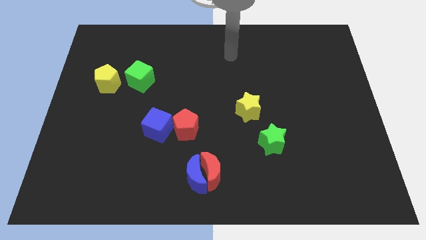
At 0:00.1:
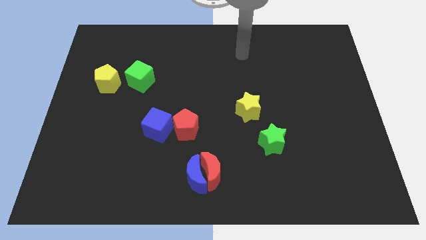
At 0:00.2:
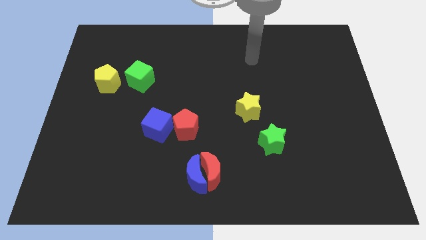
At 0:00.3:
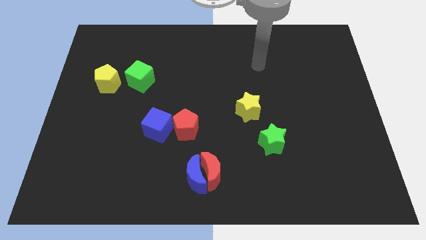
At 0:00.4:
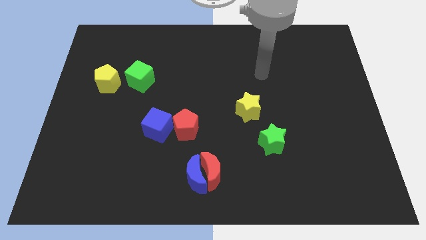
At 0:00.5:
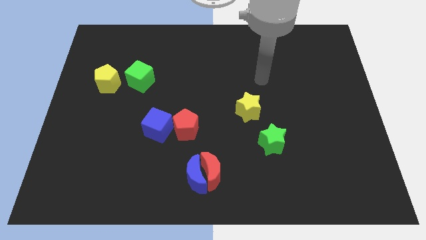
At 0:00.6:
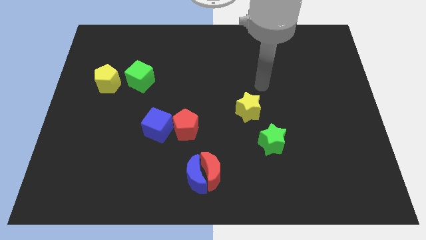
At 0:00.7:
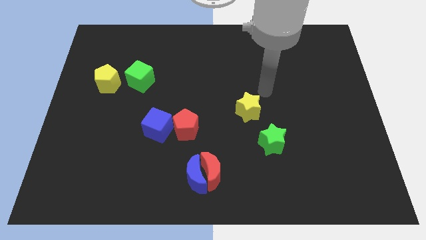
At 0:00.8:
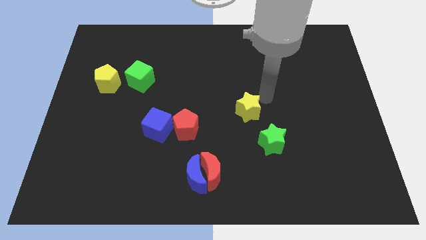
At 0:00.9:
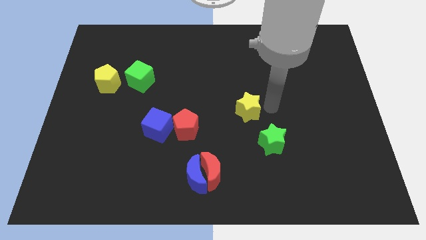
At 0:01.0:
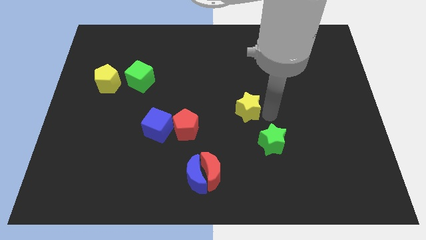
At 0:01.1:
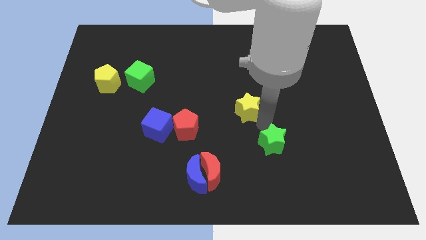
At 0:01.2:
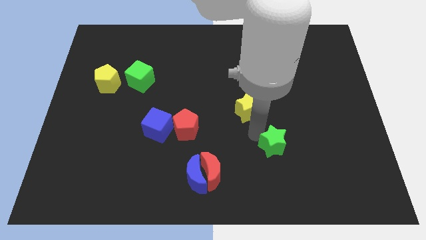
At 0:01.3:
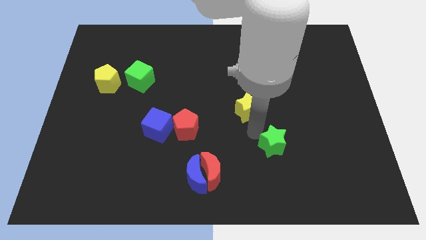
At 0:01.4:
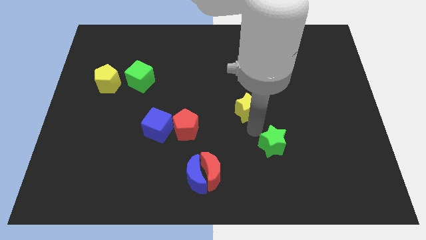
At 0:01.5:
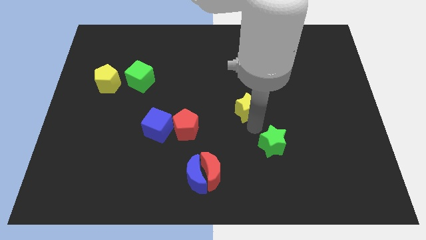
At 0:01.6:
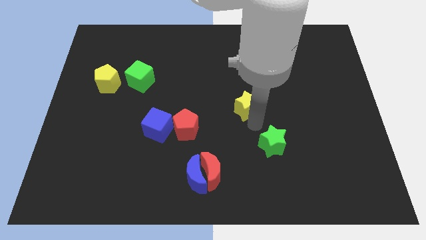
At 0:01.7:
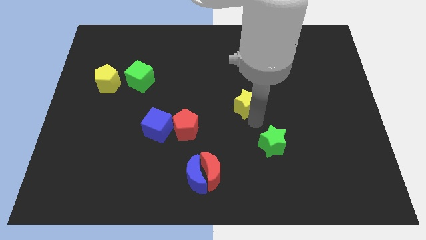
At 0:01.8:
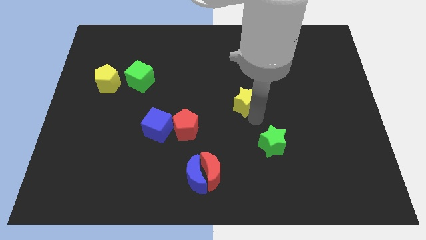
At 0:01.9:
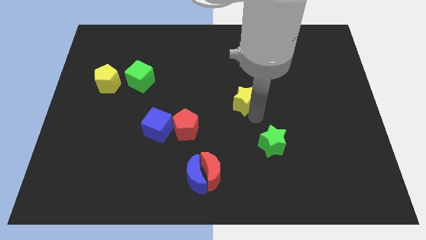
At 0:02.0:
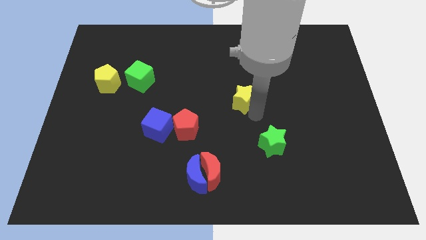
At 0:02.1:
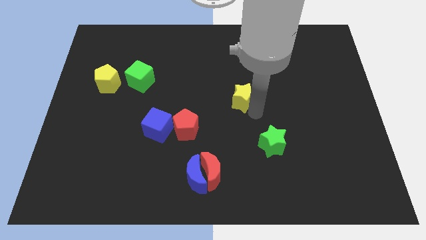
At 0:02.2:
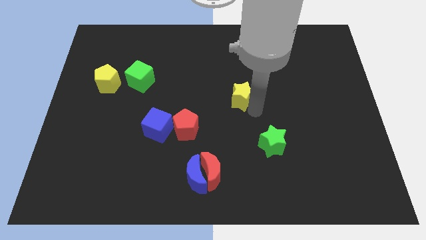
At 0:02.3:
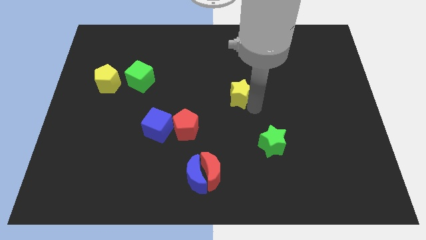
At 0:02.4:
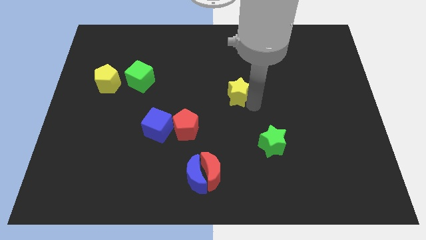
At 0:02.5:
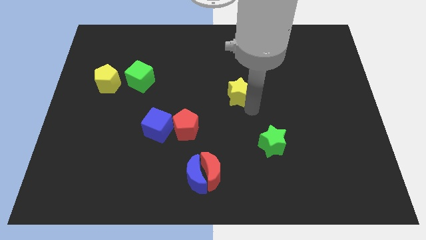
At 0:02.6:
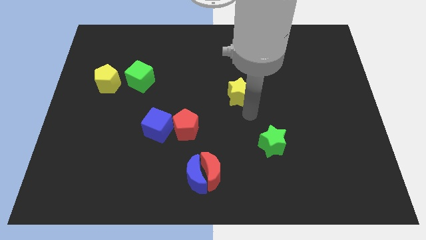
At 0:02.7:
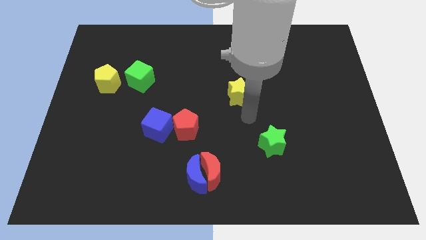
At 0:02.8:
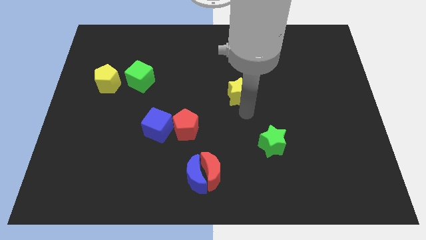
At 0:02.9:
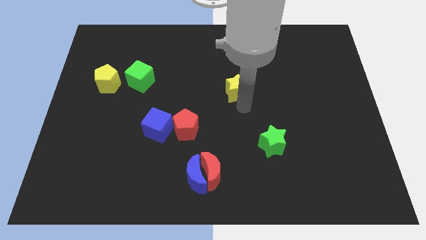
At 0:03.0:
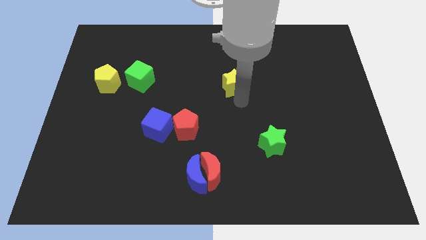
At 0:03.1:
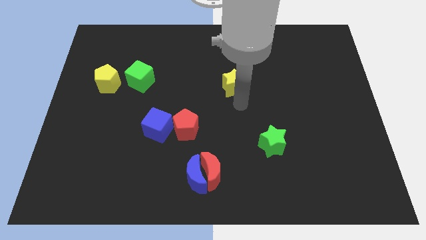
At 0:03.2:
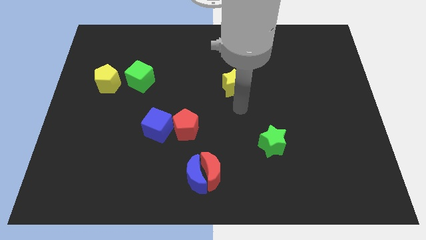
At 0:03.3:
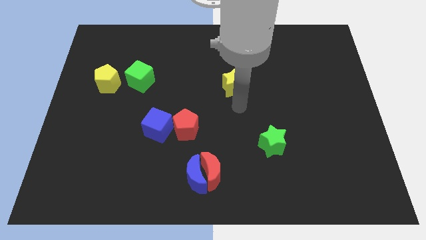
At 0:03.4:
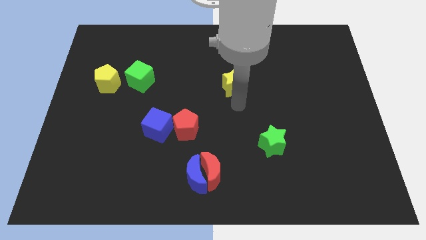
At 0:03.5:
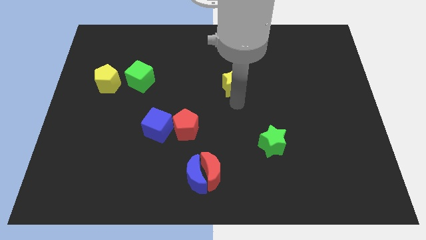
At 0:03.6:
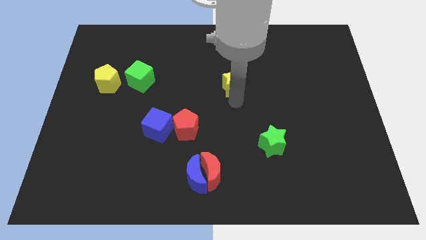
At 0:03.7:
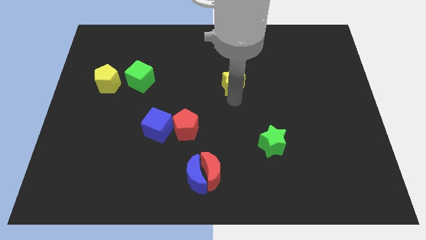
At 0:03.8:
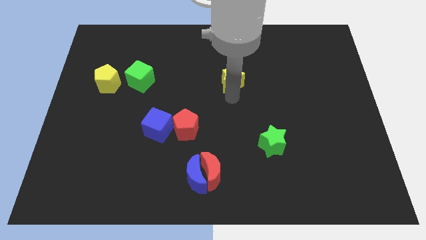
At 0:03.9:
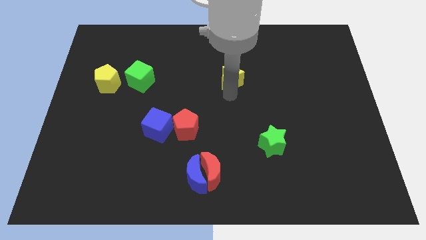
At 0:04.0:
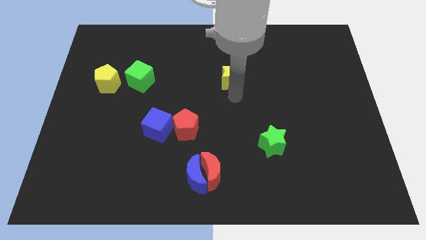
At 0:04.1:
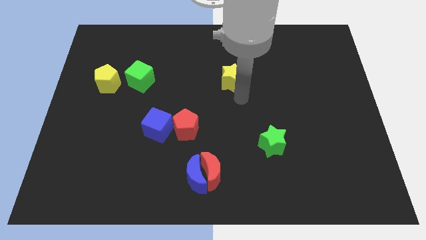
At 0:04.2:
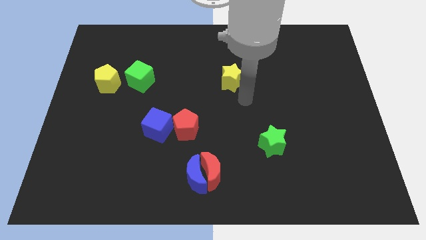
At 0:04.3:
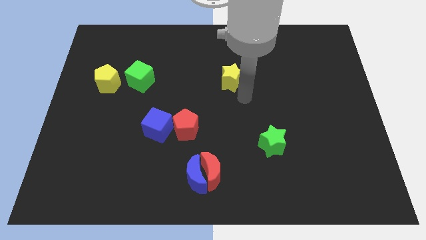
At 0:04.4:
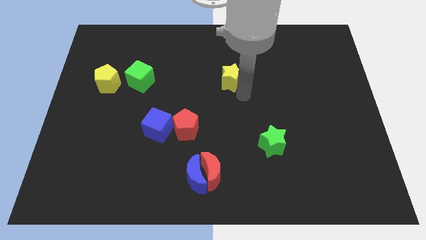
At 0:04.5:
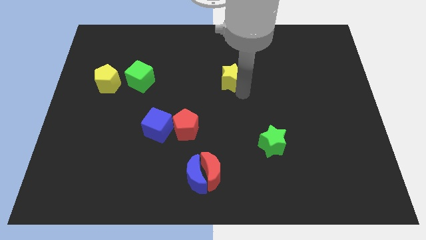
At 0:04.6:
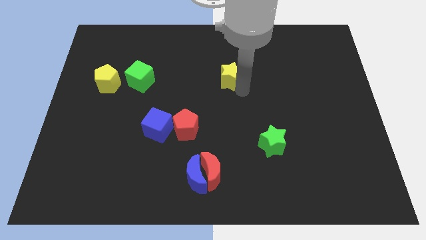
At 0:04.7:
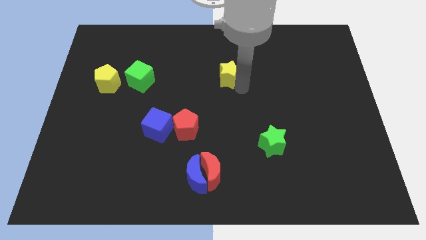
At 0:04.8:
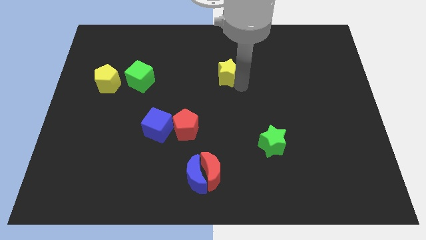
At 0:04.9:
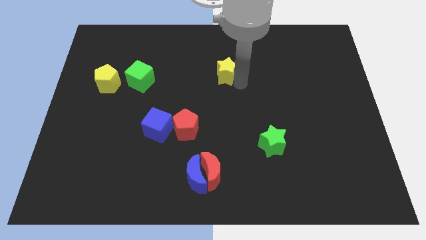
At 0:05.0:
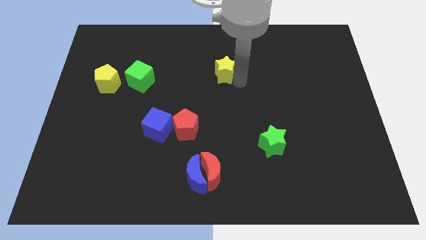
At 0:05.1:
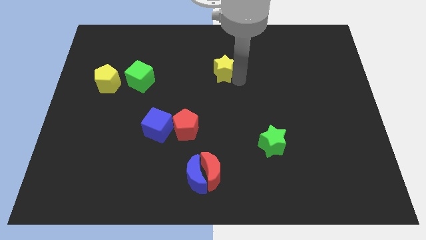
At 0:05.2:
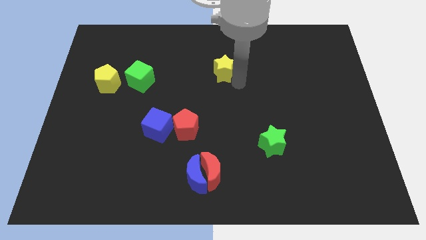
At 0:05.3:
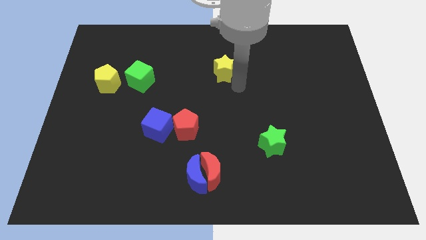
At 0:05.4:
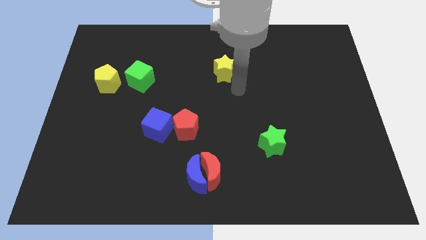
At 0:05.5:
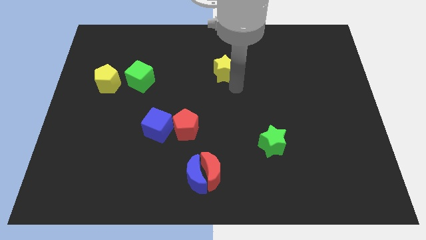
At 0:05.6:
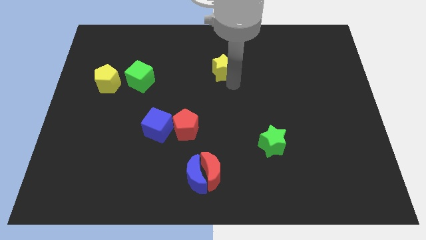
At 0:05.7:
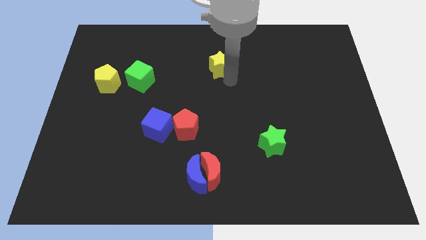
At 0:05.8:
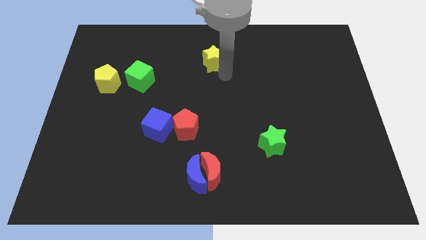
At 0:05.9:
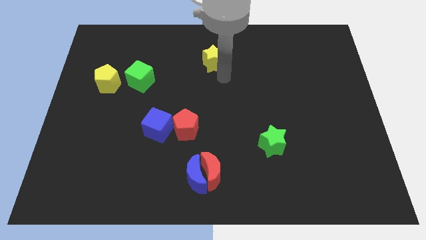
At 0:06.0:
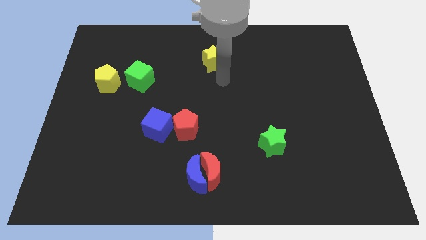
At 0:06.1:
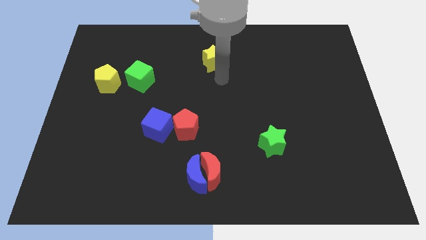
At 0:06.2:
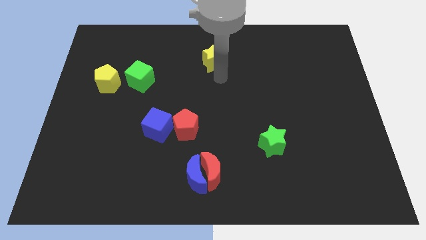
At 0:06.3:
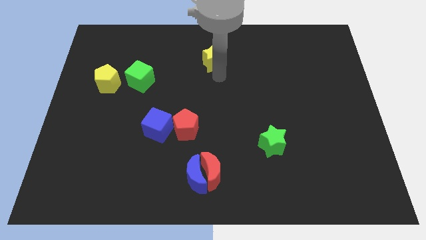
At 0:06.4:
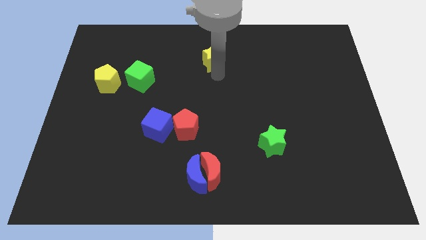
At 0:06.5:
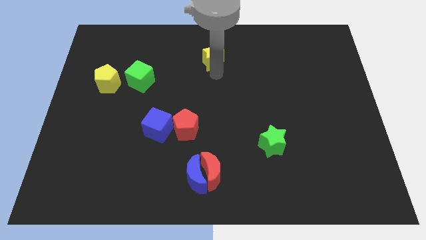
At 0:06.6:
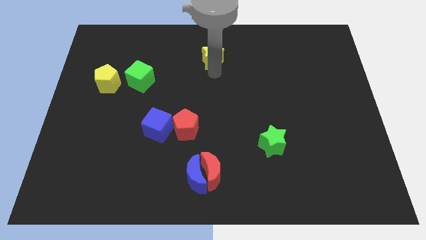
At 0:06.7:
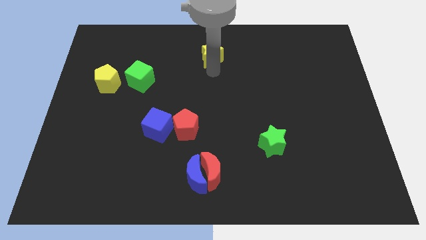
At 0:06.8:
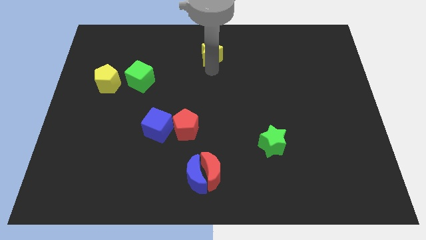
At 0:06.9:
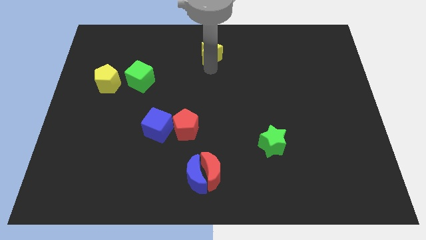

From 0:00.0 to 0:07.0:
slide the yellow star to the top side
